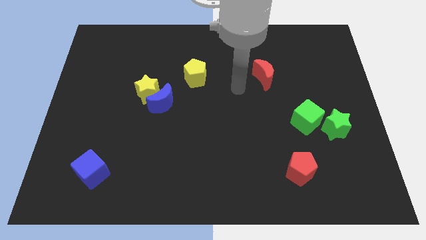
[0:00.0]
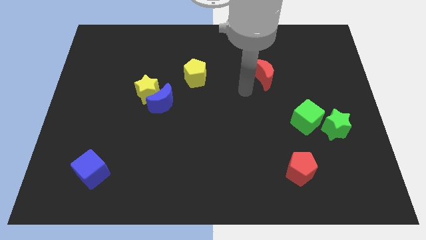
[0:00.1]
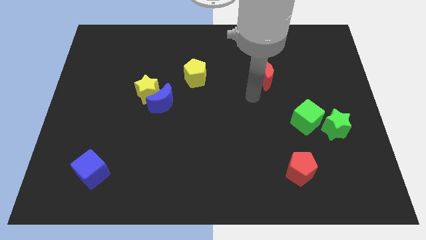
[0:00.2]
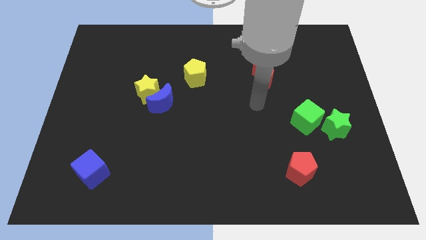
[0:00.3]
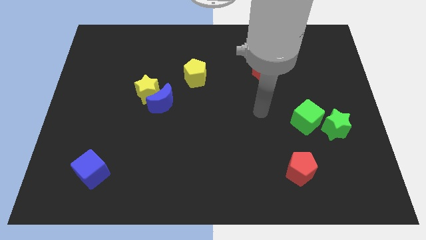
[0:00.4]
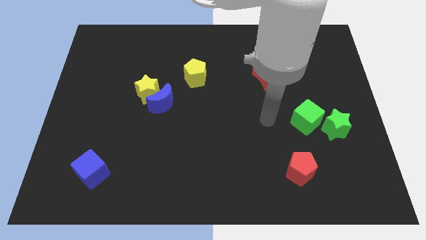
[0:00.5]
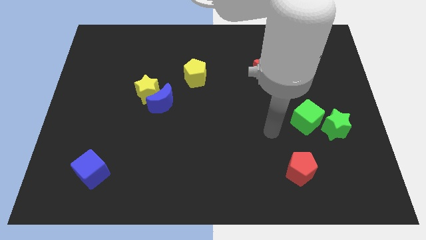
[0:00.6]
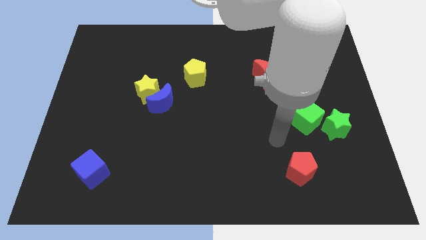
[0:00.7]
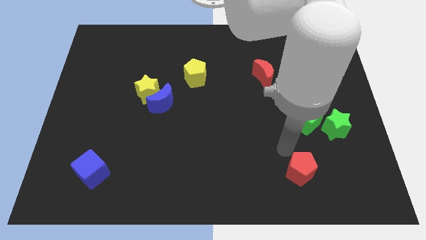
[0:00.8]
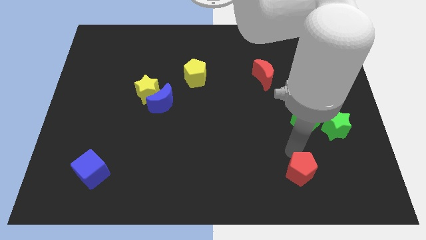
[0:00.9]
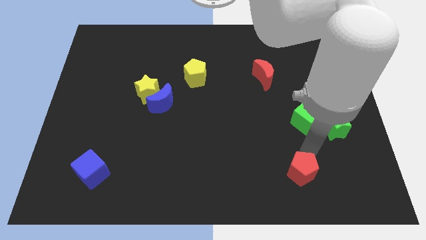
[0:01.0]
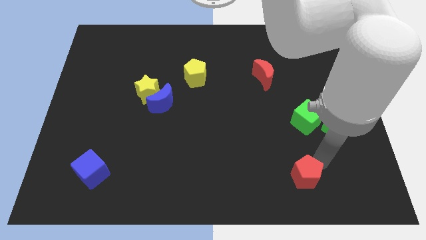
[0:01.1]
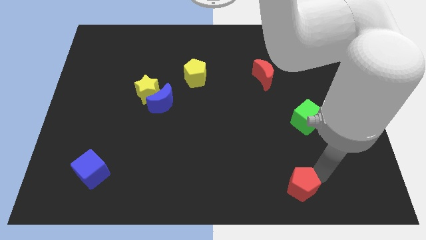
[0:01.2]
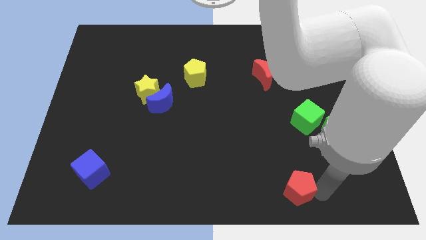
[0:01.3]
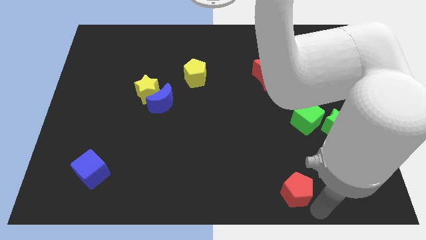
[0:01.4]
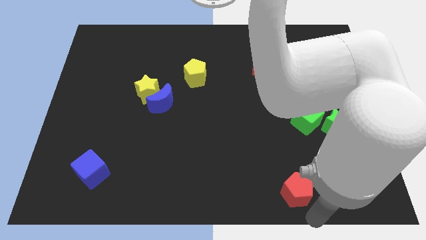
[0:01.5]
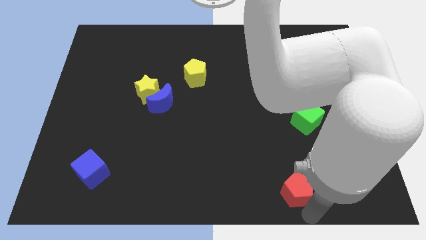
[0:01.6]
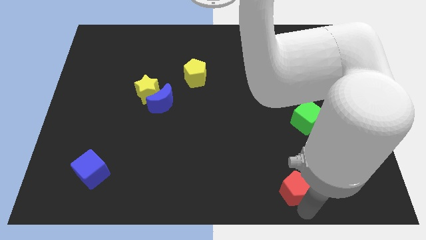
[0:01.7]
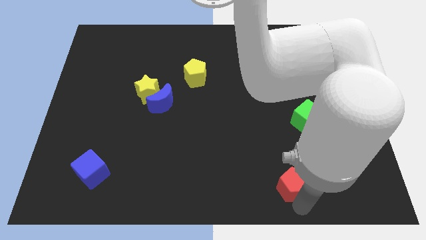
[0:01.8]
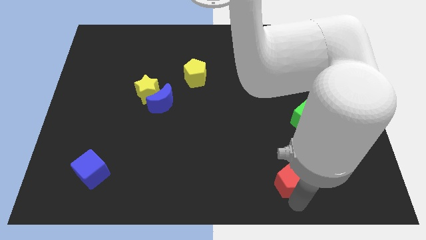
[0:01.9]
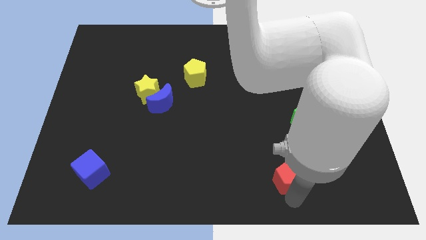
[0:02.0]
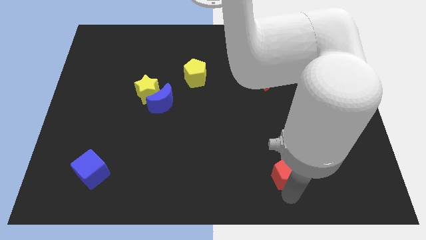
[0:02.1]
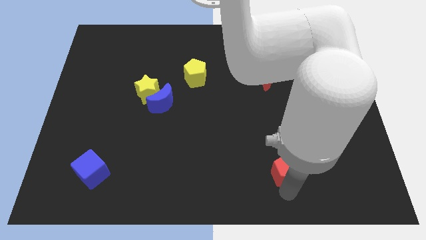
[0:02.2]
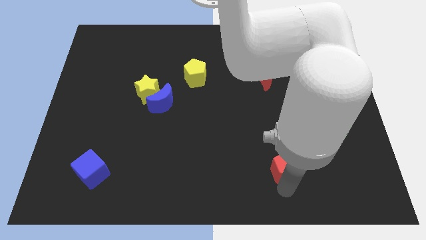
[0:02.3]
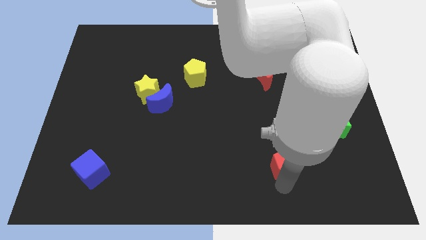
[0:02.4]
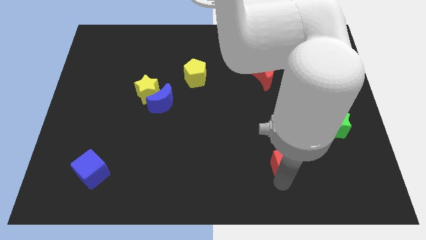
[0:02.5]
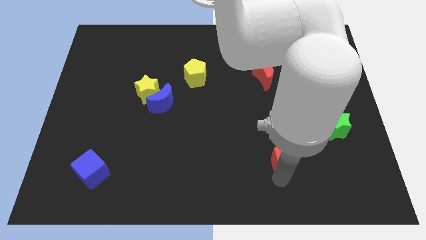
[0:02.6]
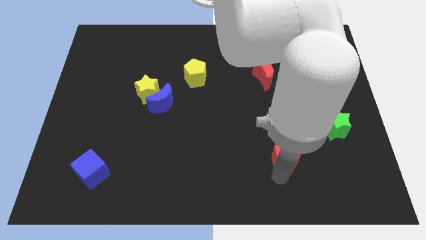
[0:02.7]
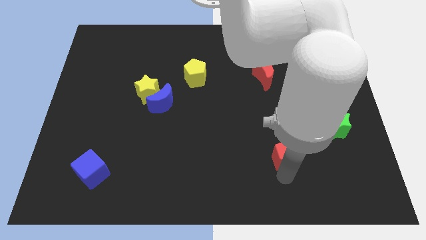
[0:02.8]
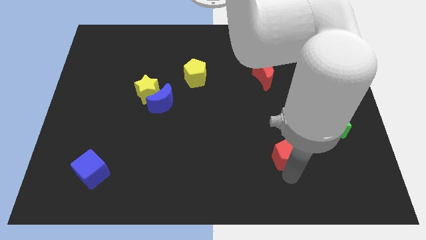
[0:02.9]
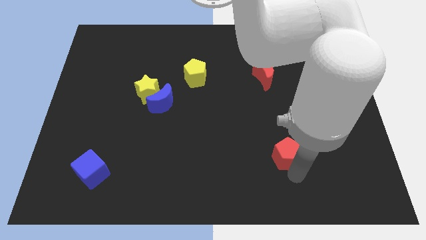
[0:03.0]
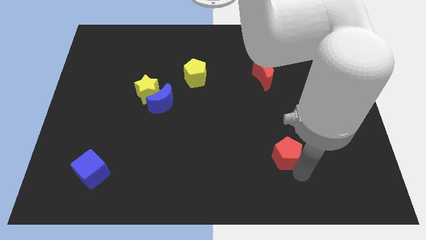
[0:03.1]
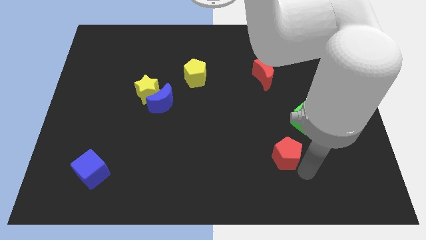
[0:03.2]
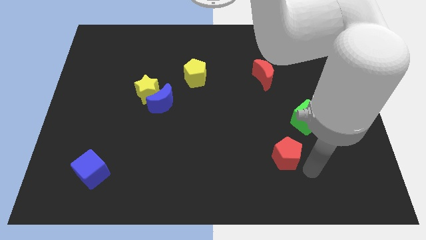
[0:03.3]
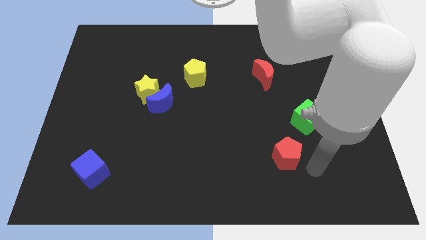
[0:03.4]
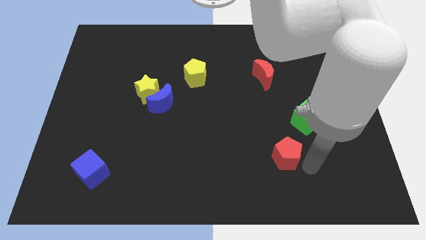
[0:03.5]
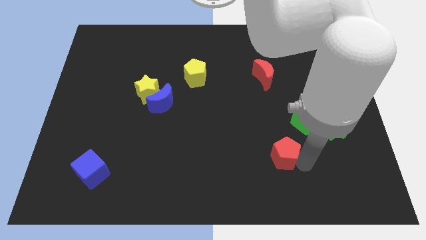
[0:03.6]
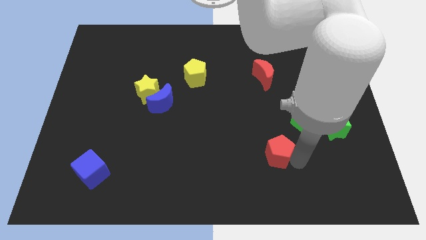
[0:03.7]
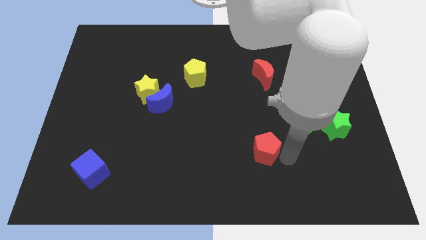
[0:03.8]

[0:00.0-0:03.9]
slide the red pentagon diagonally upwards and to the left somewhat

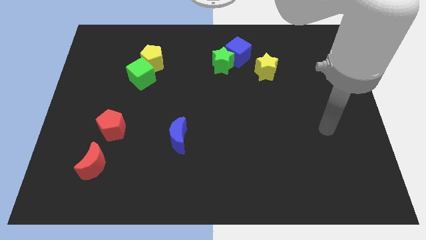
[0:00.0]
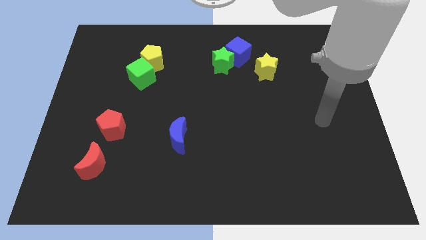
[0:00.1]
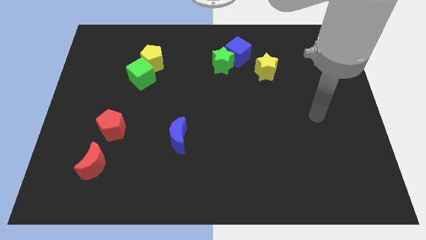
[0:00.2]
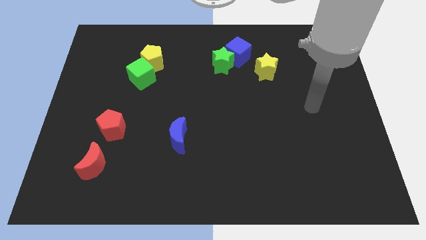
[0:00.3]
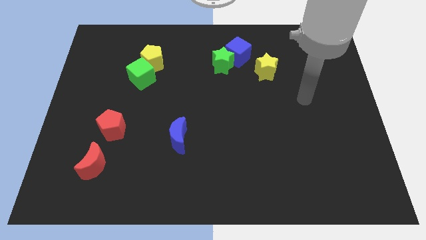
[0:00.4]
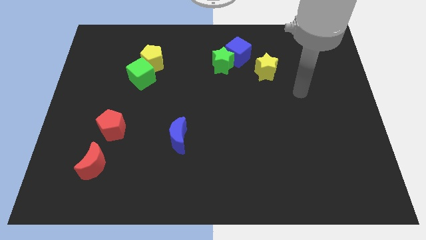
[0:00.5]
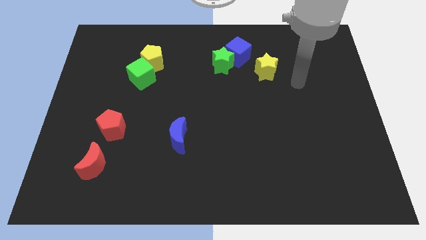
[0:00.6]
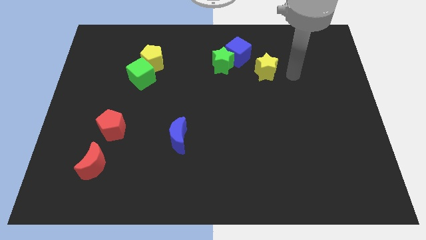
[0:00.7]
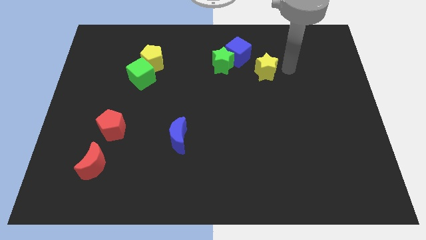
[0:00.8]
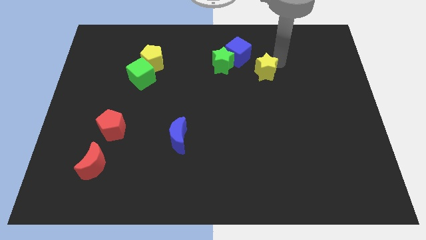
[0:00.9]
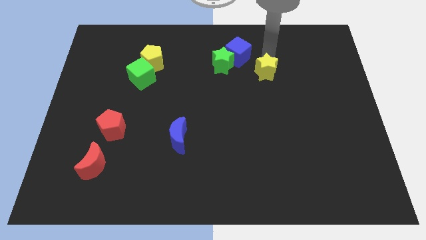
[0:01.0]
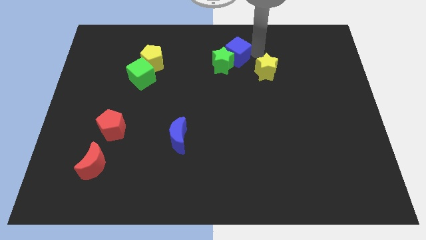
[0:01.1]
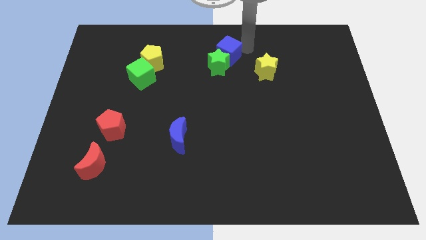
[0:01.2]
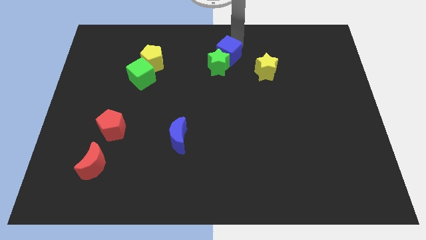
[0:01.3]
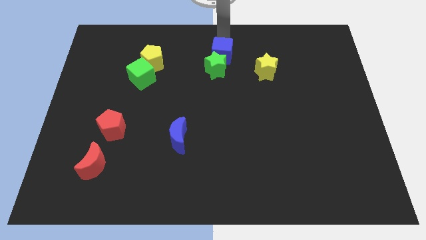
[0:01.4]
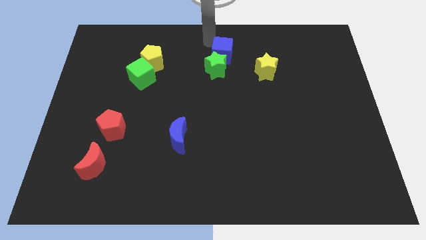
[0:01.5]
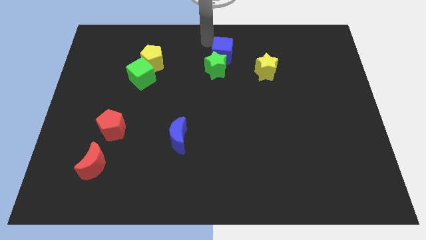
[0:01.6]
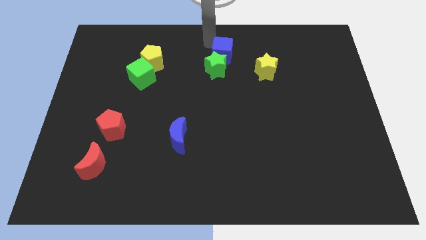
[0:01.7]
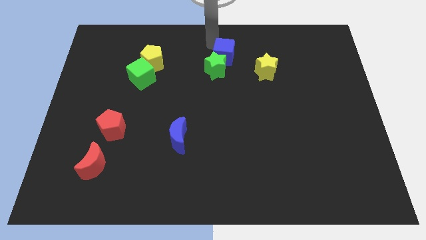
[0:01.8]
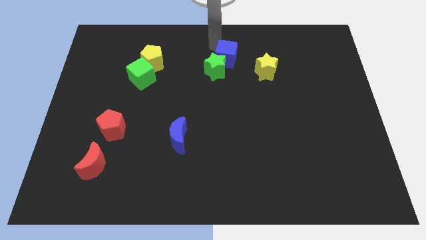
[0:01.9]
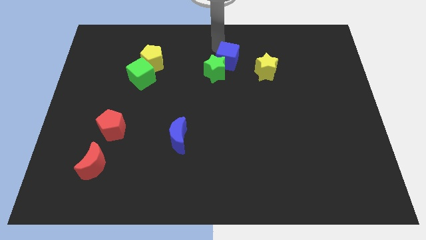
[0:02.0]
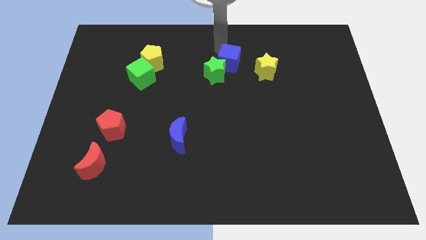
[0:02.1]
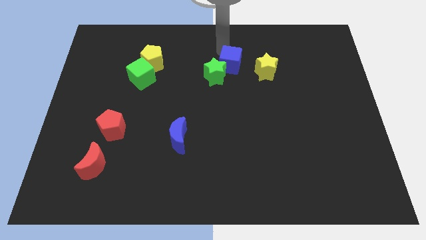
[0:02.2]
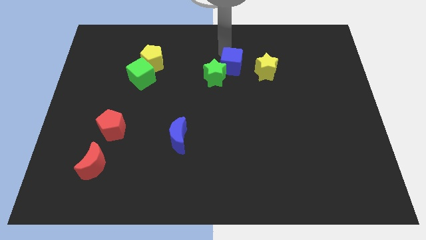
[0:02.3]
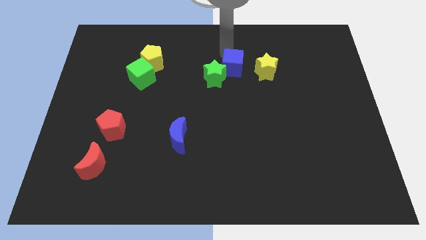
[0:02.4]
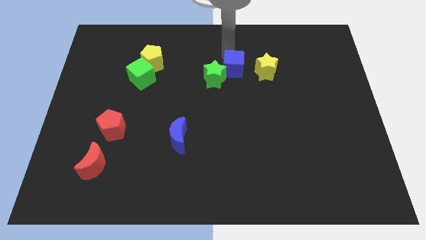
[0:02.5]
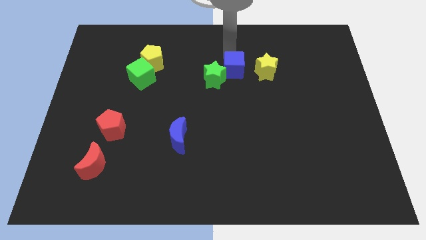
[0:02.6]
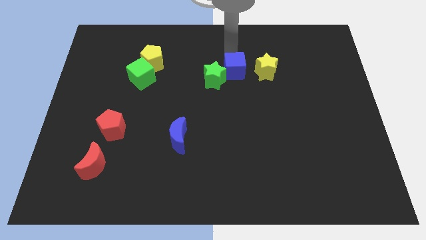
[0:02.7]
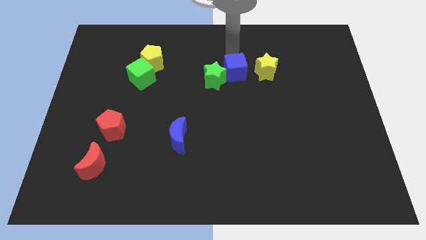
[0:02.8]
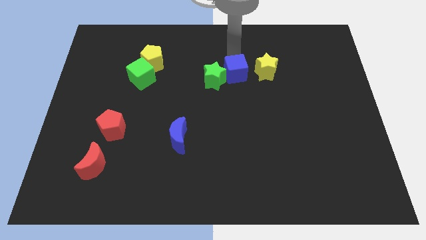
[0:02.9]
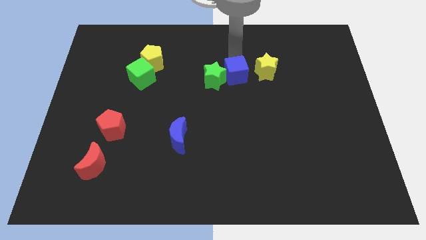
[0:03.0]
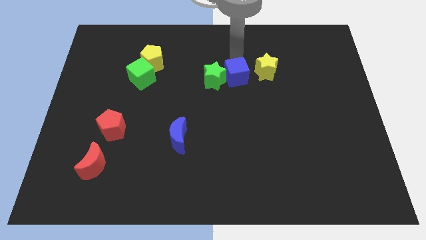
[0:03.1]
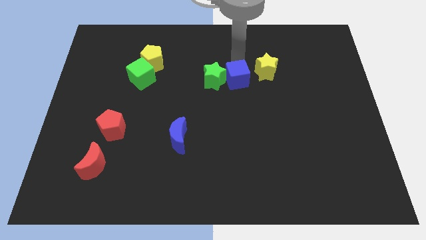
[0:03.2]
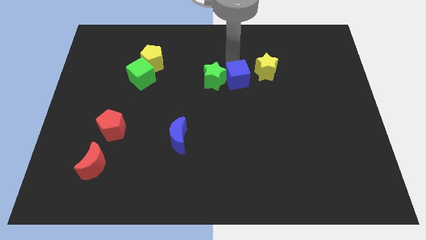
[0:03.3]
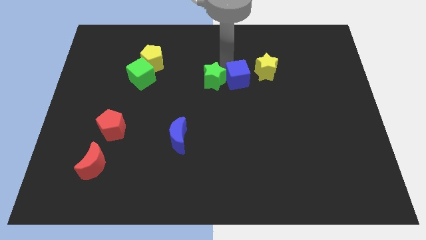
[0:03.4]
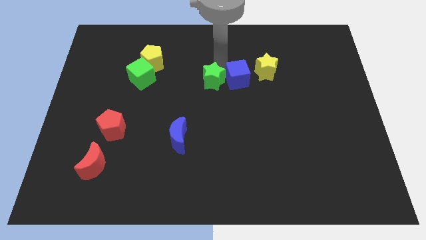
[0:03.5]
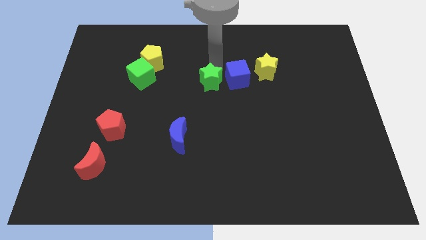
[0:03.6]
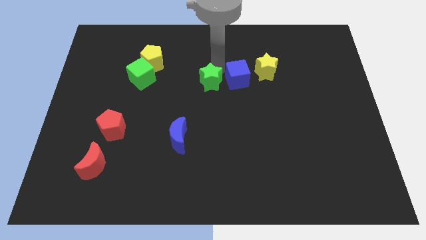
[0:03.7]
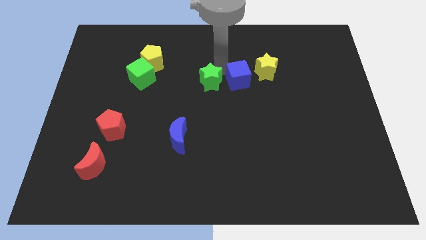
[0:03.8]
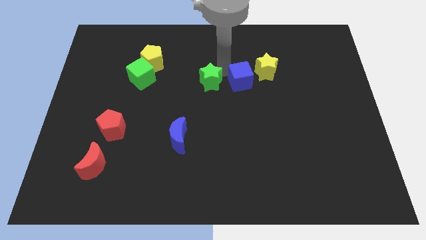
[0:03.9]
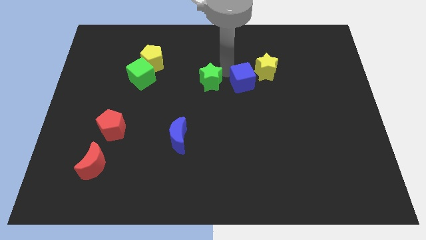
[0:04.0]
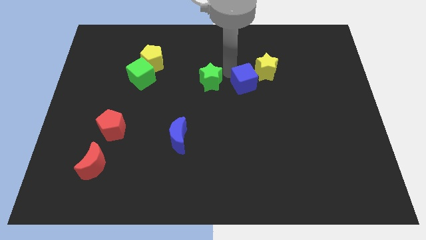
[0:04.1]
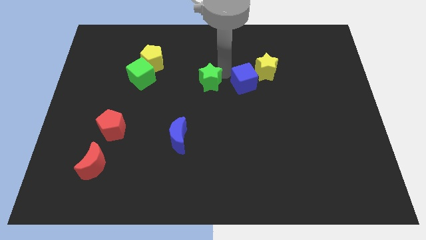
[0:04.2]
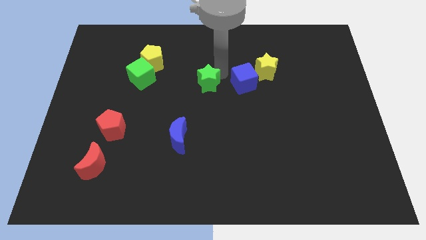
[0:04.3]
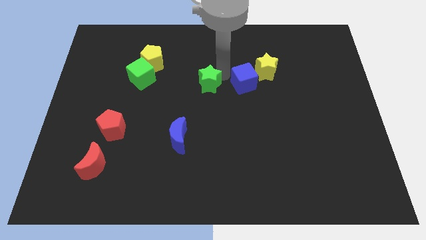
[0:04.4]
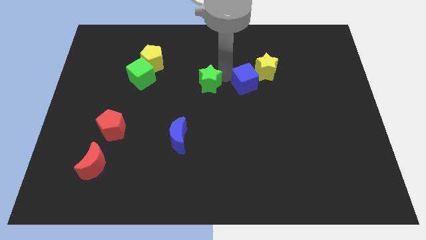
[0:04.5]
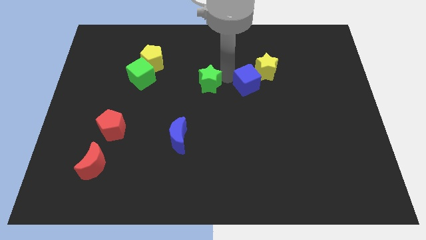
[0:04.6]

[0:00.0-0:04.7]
push the blue cube somewhat diagonally down and to the right

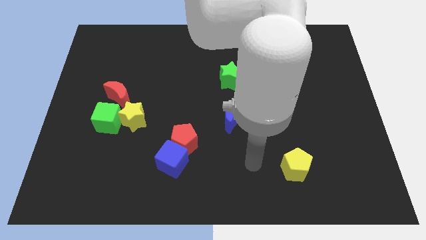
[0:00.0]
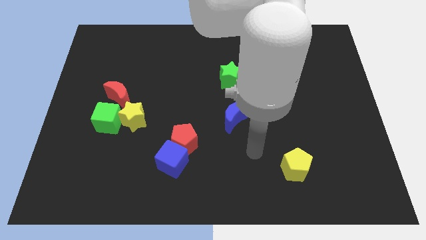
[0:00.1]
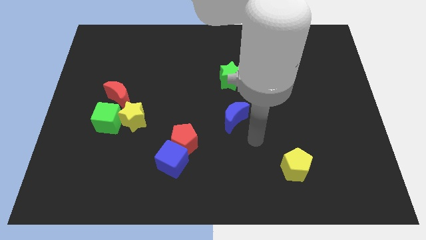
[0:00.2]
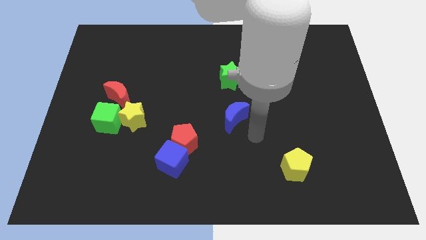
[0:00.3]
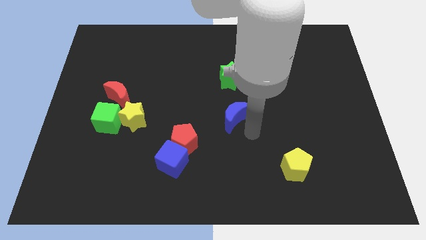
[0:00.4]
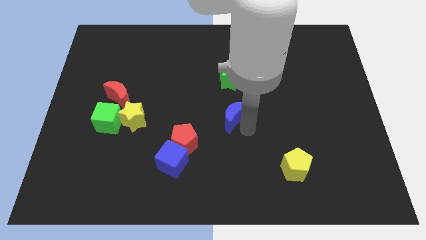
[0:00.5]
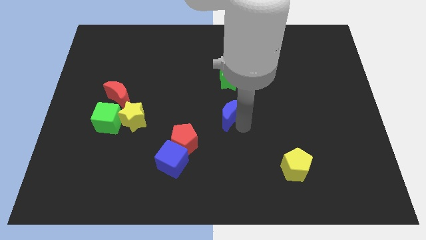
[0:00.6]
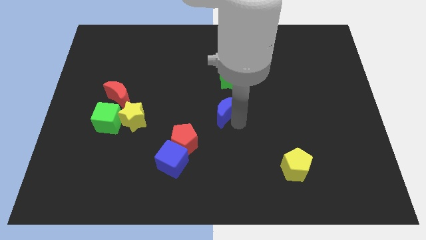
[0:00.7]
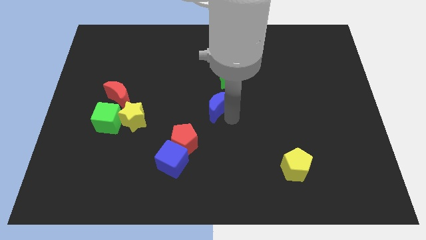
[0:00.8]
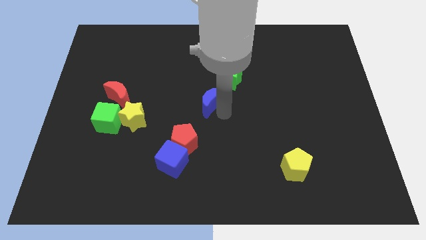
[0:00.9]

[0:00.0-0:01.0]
push the blue moon up and to the left somewhat
